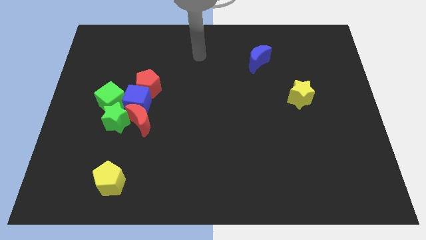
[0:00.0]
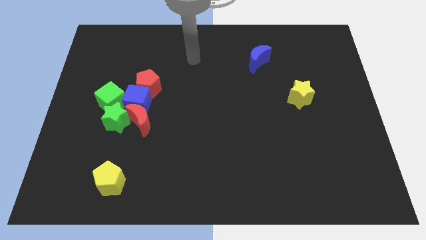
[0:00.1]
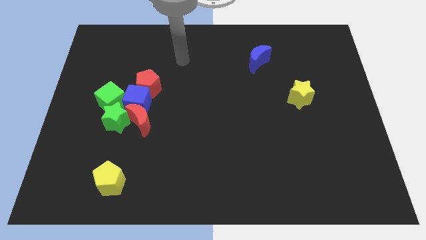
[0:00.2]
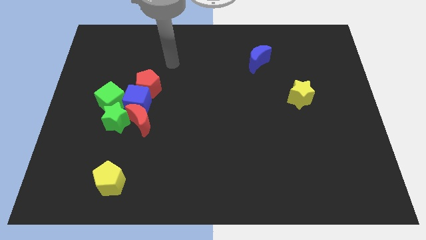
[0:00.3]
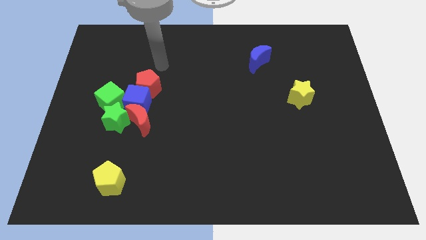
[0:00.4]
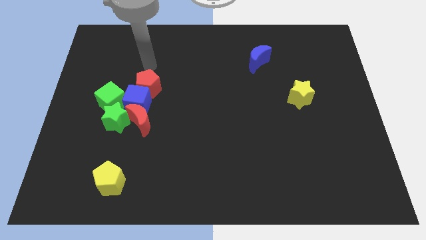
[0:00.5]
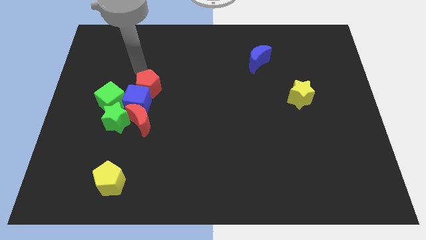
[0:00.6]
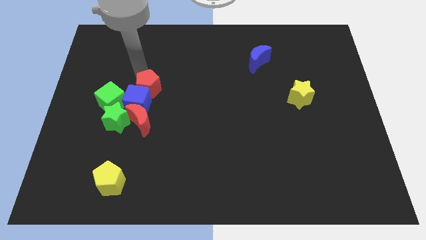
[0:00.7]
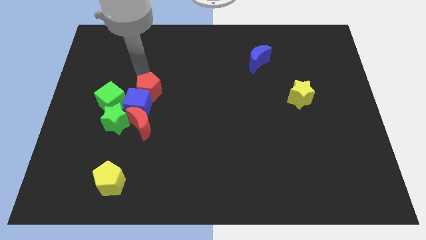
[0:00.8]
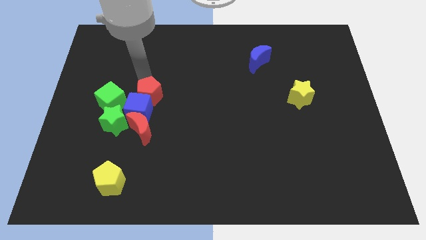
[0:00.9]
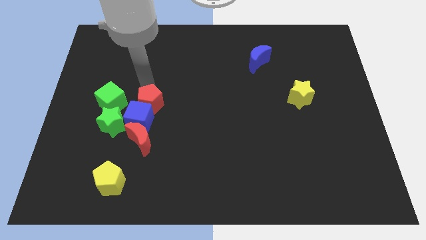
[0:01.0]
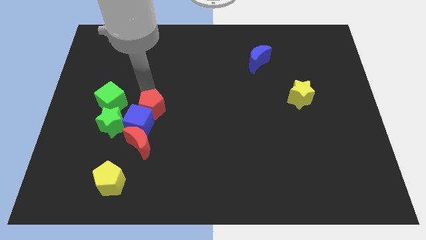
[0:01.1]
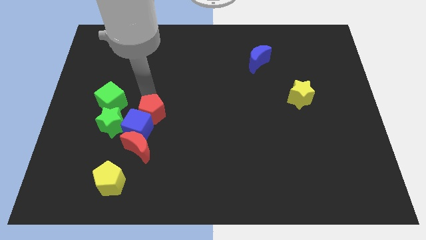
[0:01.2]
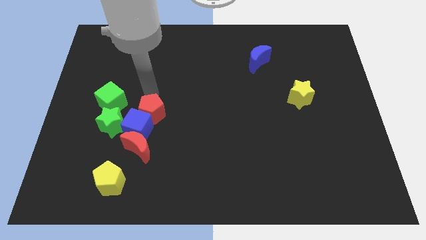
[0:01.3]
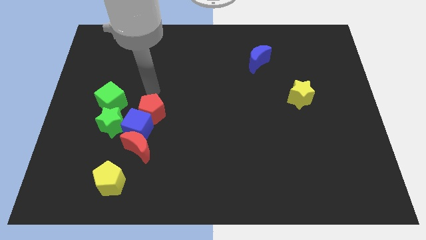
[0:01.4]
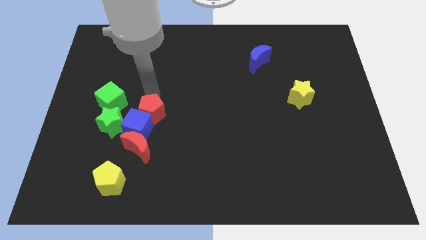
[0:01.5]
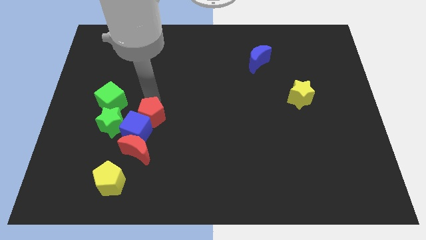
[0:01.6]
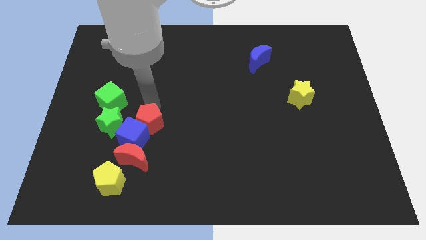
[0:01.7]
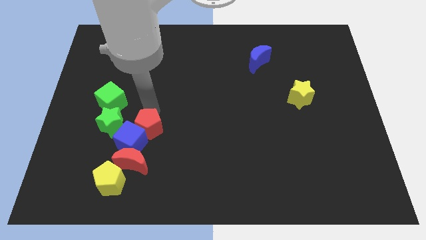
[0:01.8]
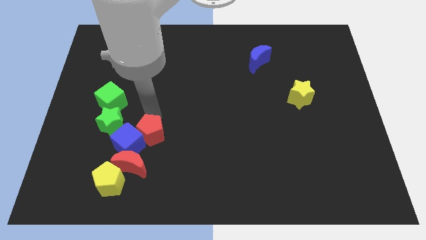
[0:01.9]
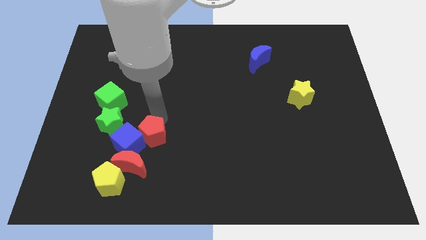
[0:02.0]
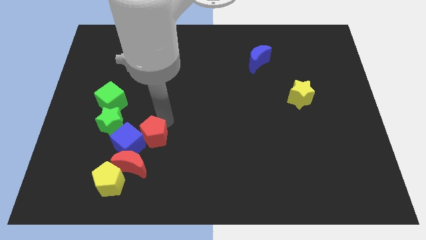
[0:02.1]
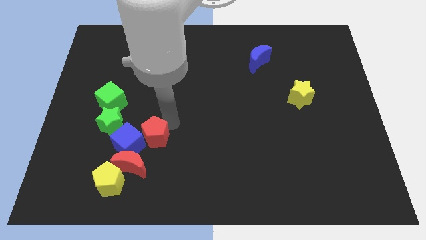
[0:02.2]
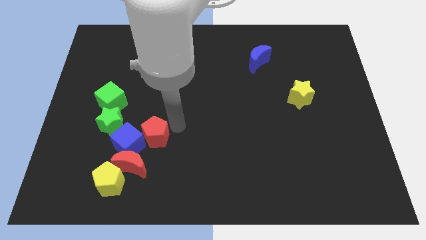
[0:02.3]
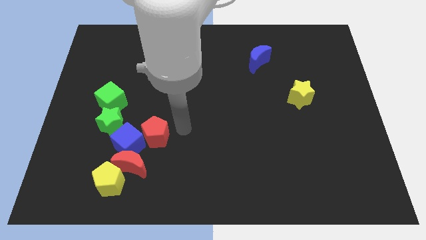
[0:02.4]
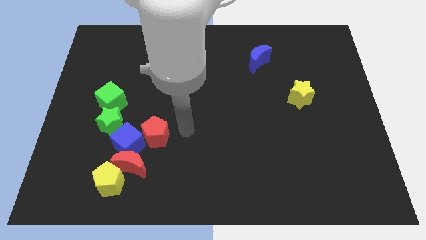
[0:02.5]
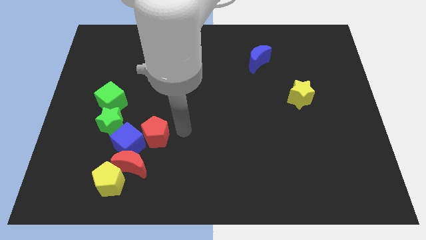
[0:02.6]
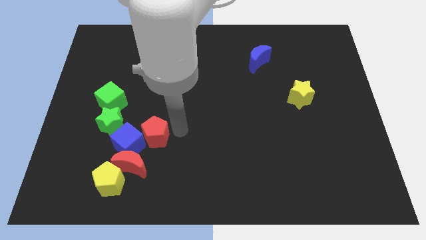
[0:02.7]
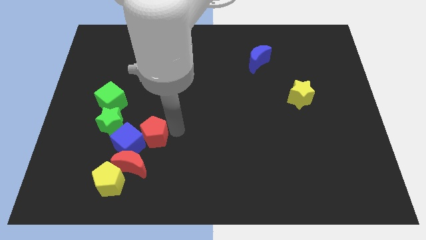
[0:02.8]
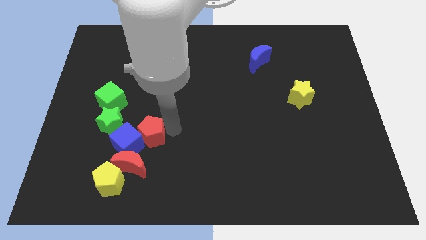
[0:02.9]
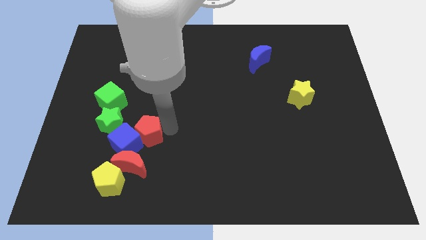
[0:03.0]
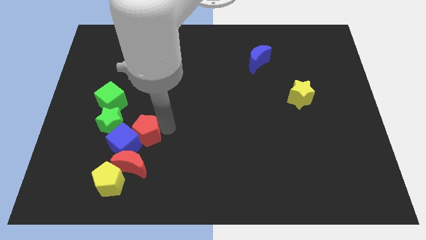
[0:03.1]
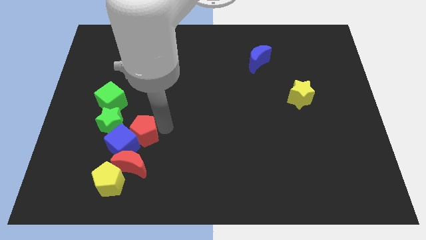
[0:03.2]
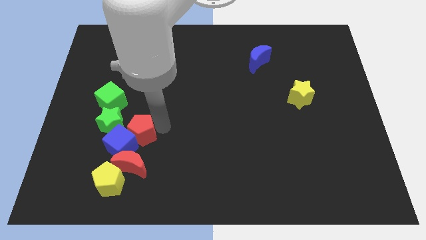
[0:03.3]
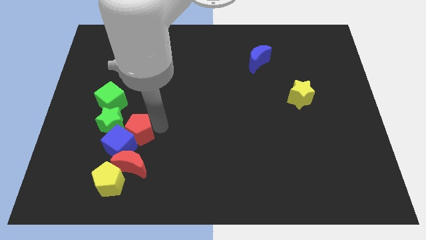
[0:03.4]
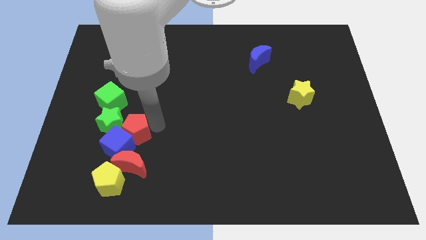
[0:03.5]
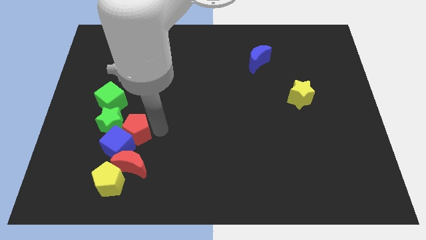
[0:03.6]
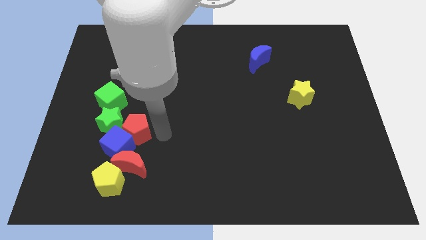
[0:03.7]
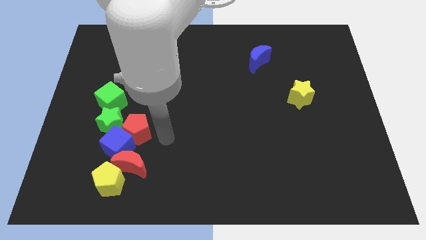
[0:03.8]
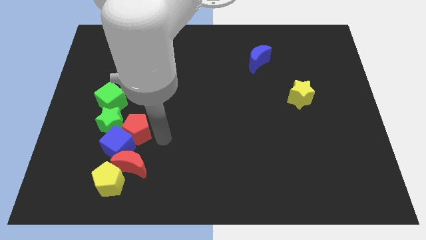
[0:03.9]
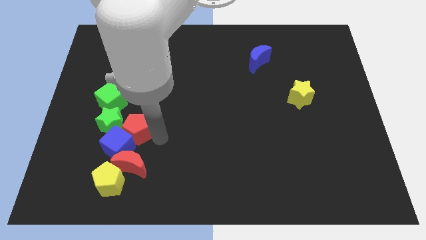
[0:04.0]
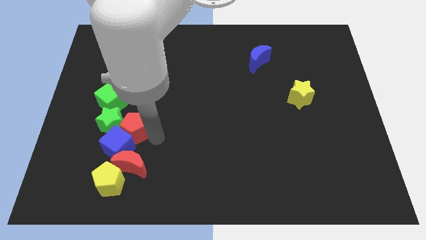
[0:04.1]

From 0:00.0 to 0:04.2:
push the red pentagon towards the green star

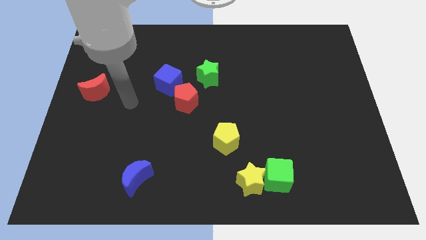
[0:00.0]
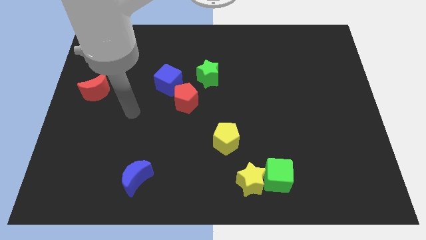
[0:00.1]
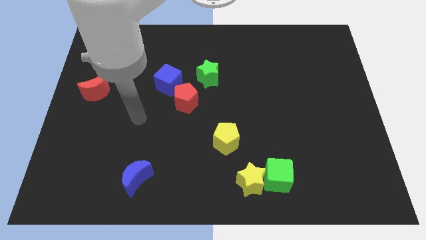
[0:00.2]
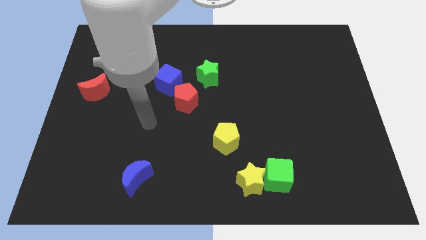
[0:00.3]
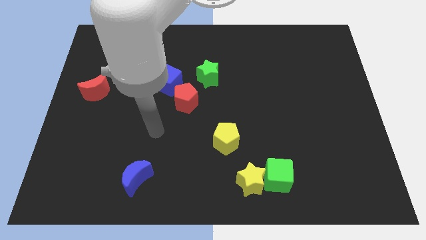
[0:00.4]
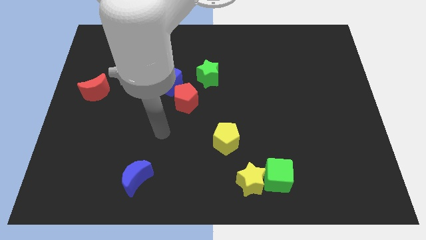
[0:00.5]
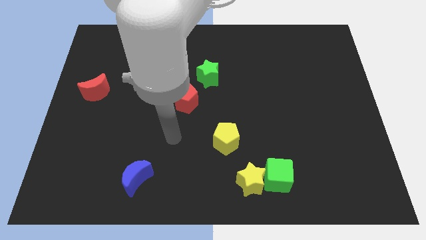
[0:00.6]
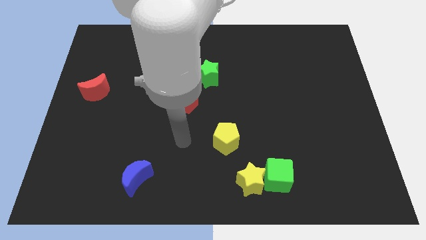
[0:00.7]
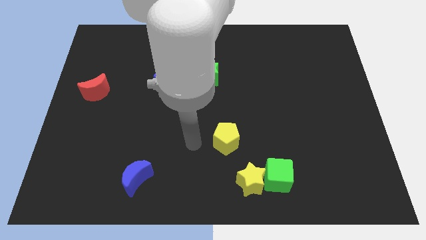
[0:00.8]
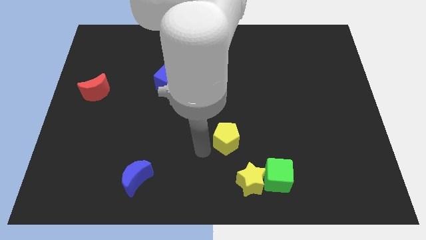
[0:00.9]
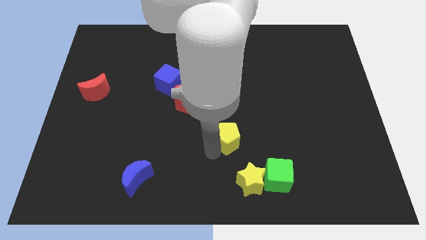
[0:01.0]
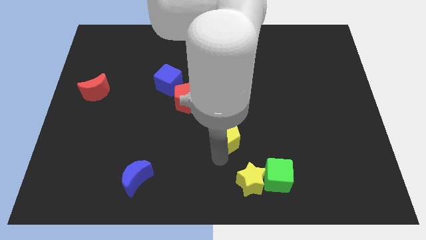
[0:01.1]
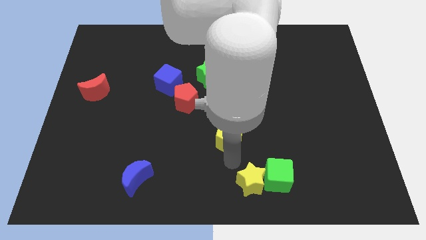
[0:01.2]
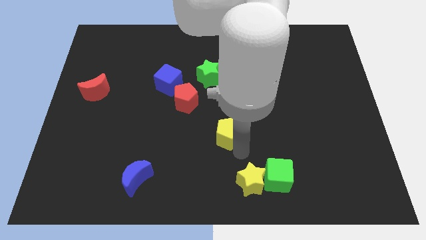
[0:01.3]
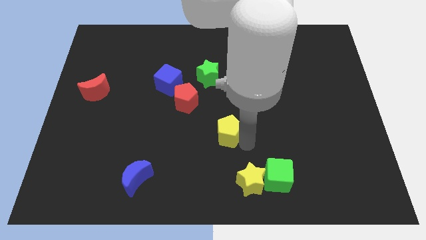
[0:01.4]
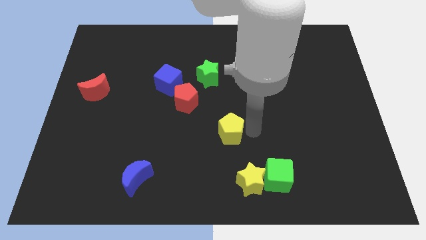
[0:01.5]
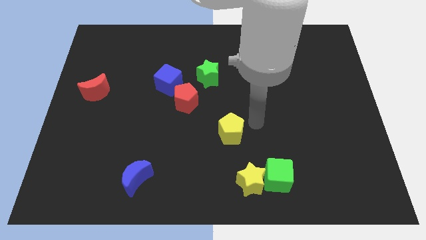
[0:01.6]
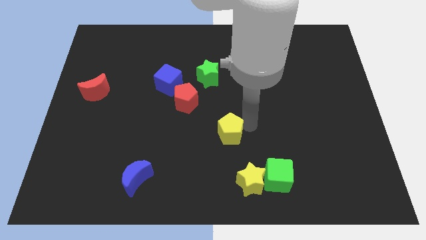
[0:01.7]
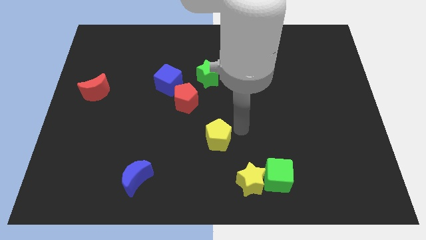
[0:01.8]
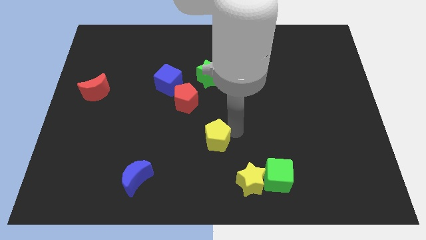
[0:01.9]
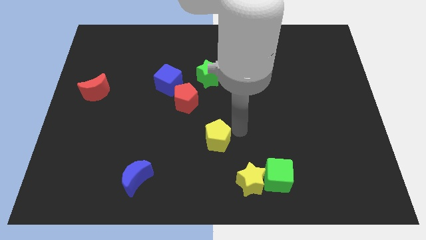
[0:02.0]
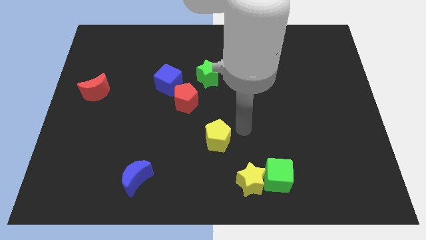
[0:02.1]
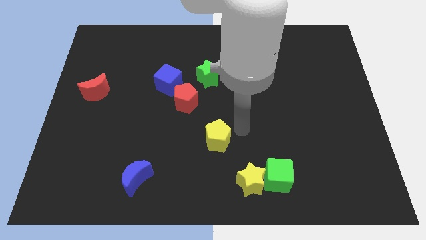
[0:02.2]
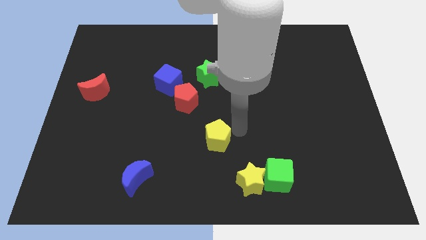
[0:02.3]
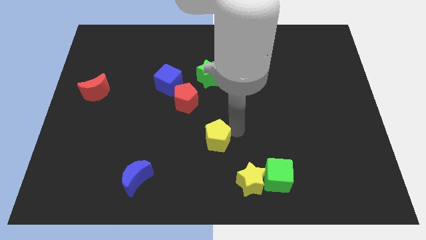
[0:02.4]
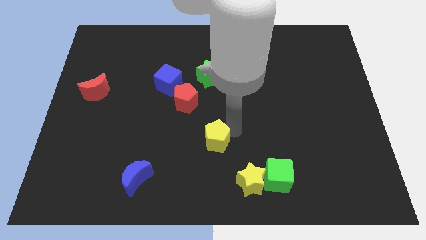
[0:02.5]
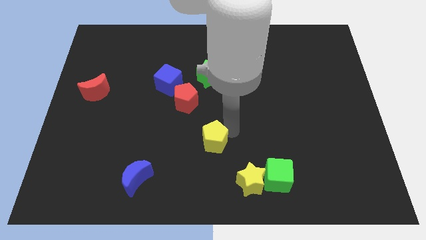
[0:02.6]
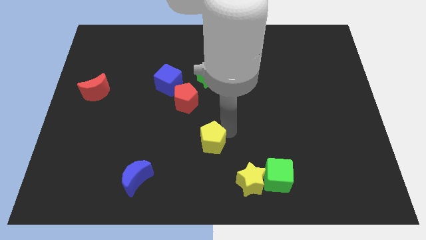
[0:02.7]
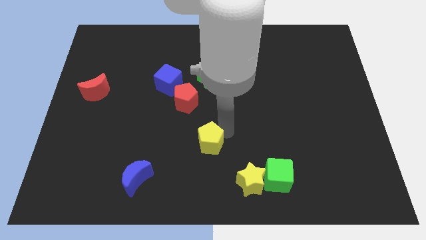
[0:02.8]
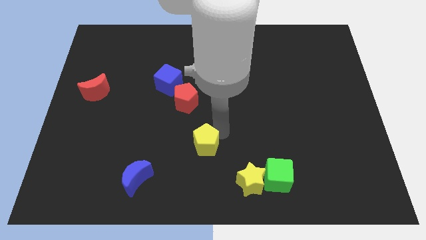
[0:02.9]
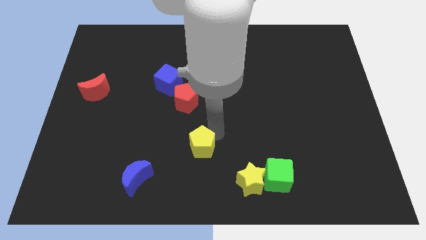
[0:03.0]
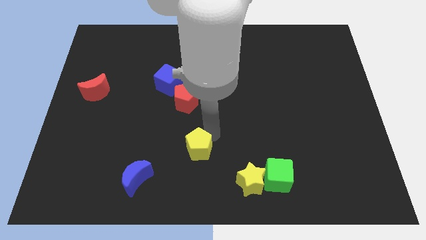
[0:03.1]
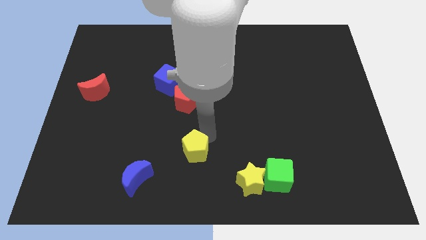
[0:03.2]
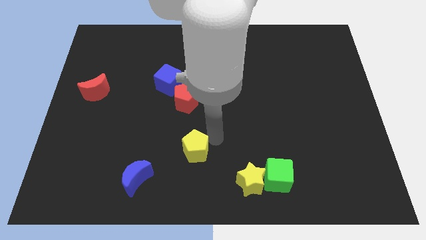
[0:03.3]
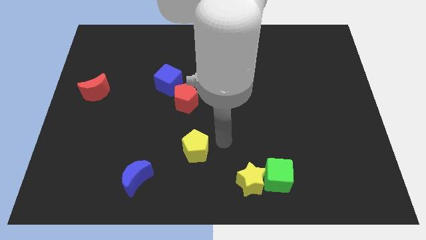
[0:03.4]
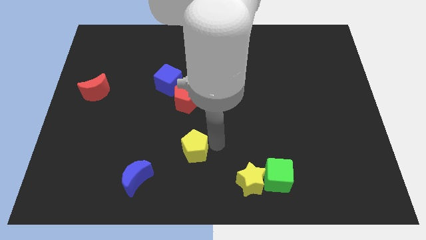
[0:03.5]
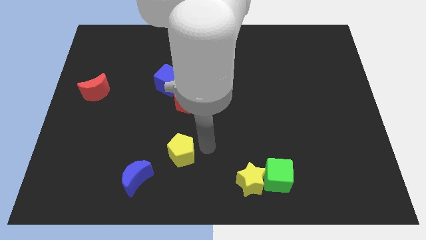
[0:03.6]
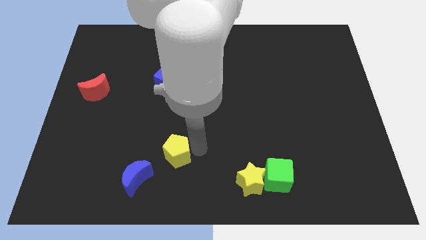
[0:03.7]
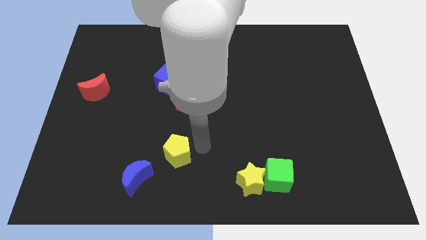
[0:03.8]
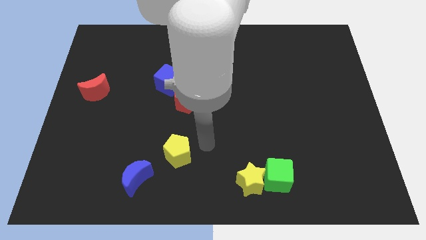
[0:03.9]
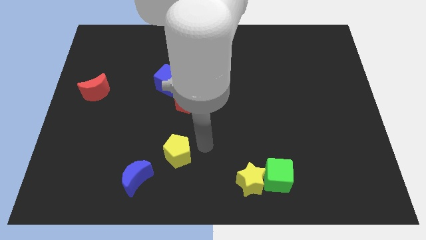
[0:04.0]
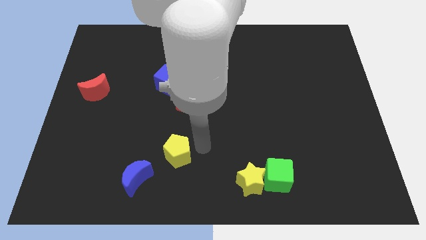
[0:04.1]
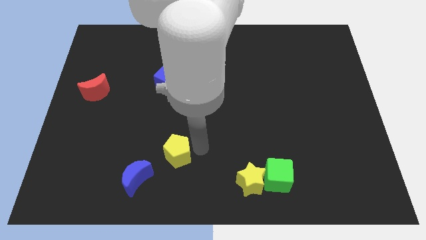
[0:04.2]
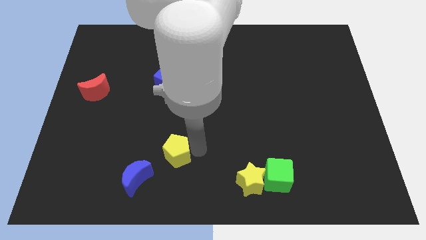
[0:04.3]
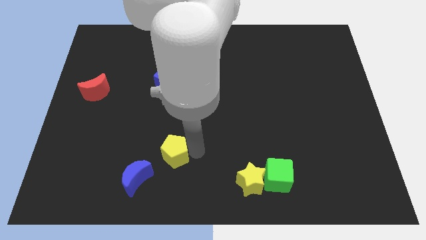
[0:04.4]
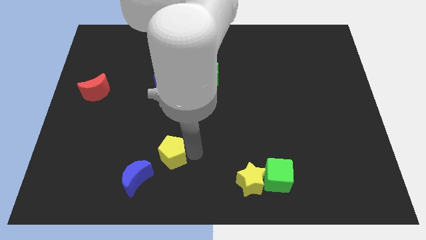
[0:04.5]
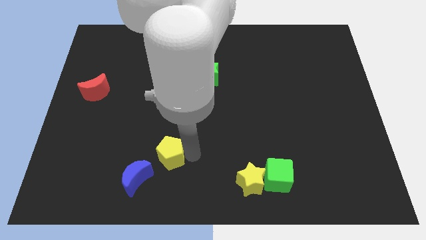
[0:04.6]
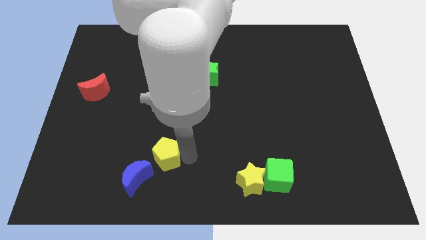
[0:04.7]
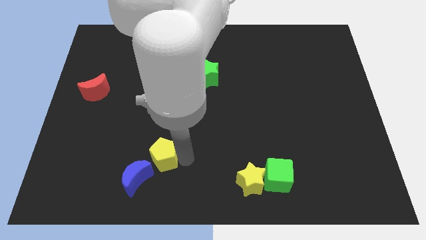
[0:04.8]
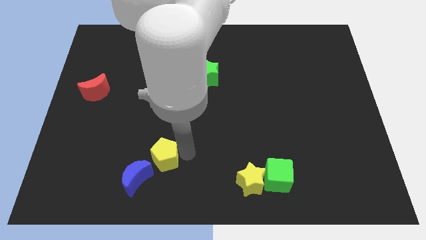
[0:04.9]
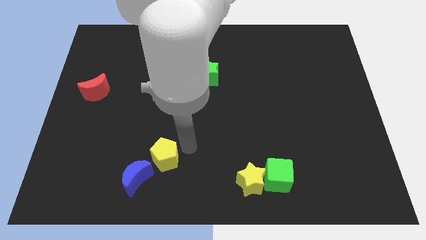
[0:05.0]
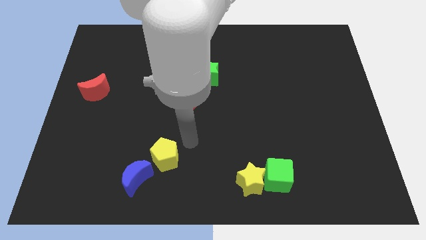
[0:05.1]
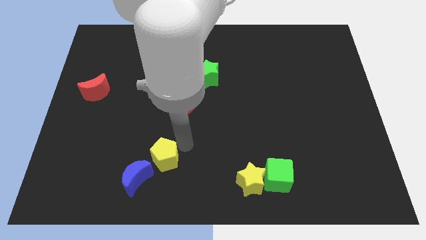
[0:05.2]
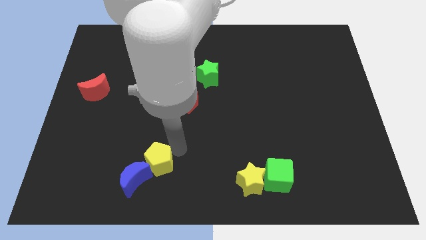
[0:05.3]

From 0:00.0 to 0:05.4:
move the yellow pentagon towards the blue moon
